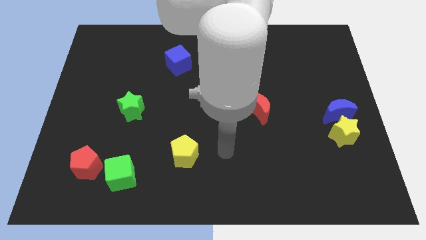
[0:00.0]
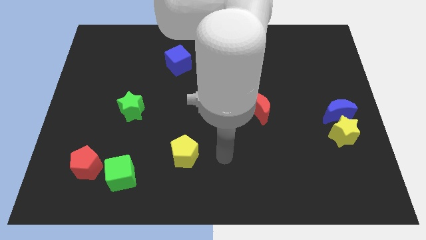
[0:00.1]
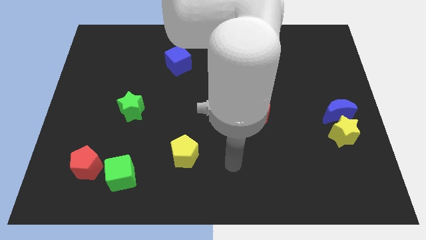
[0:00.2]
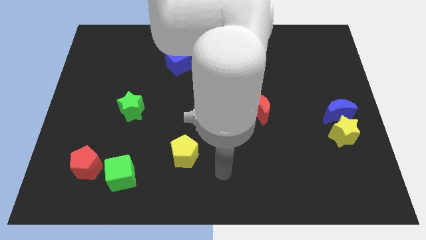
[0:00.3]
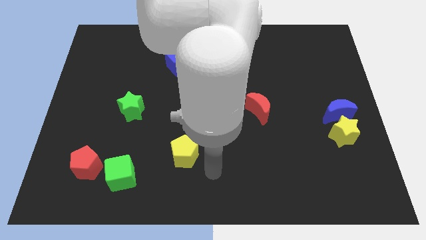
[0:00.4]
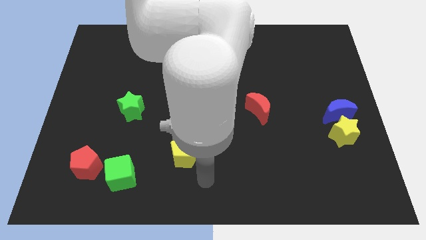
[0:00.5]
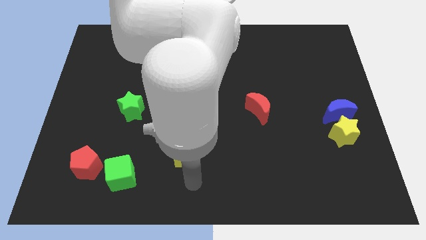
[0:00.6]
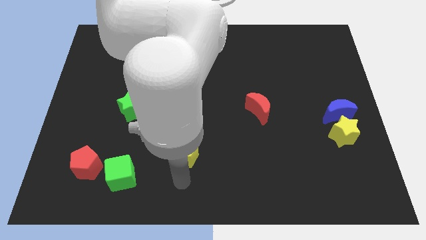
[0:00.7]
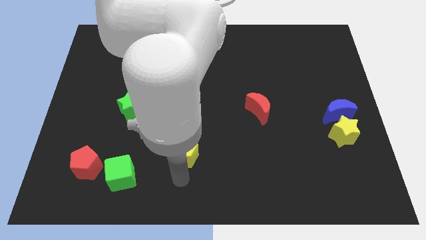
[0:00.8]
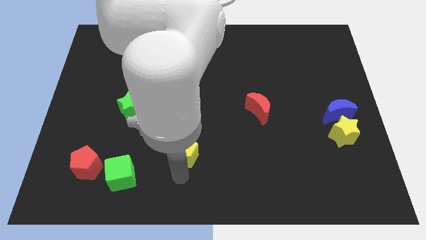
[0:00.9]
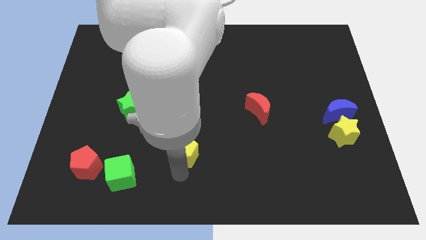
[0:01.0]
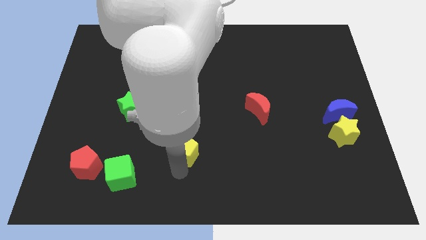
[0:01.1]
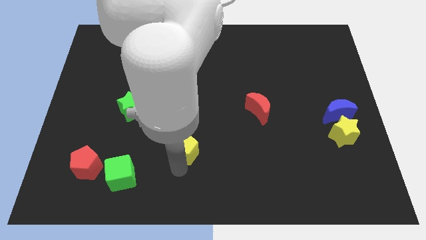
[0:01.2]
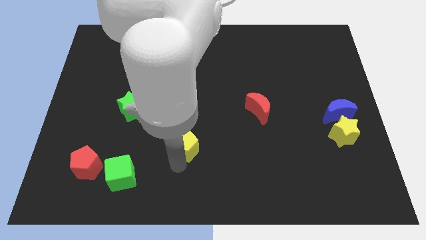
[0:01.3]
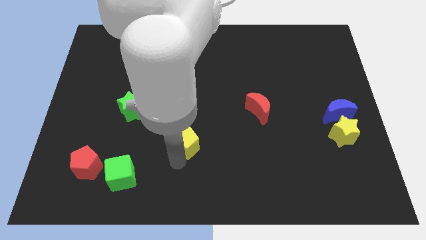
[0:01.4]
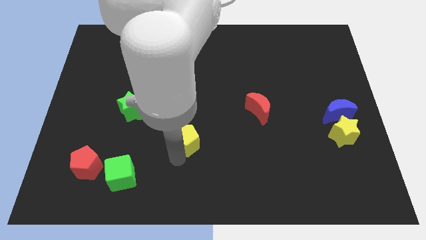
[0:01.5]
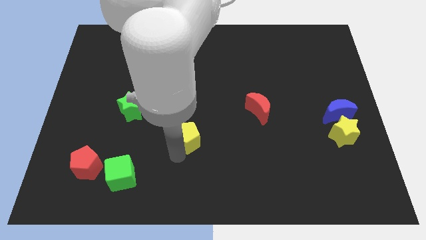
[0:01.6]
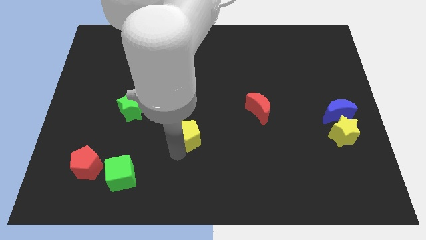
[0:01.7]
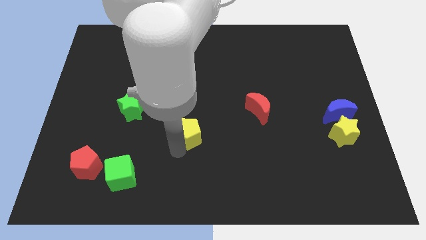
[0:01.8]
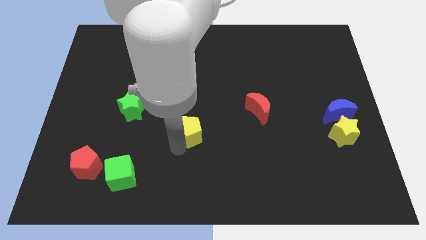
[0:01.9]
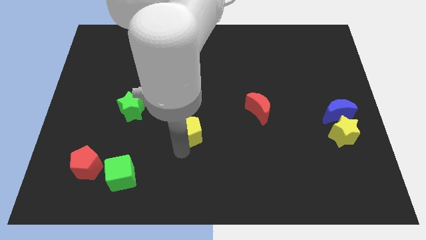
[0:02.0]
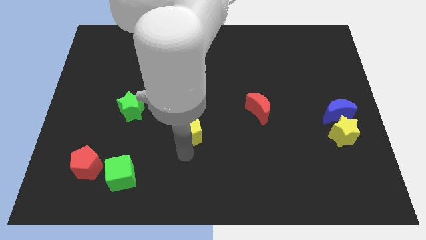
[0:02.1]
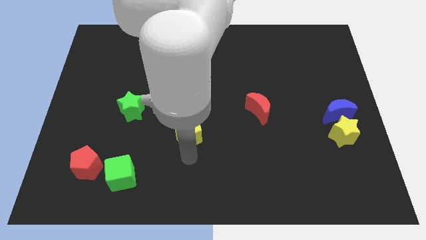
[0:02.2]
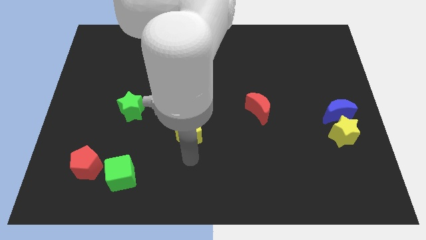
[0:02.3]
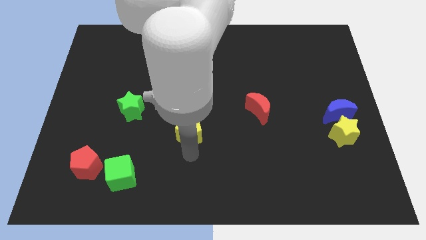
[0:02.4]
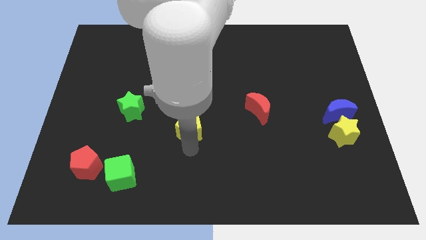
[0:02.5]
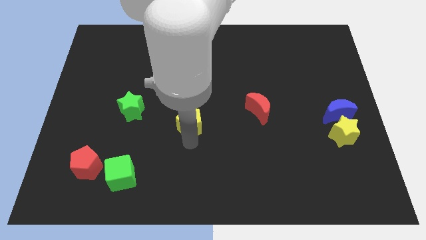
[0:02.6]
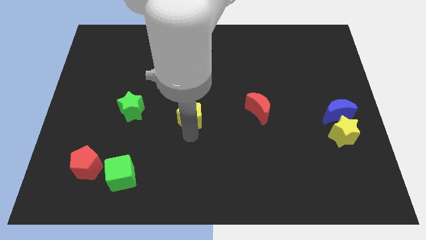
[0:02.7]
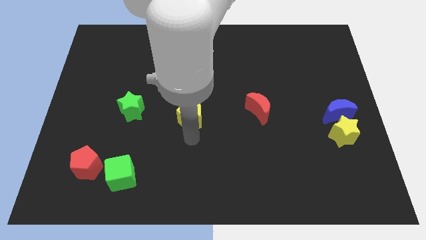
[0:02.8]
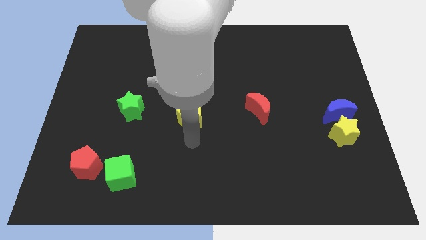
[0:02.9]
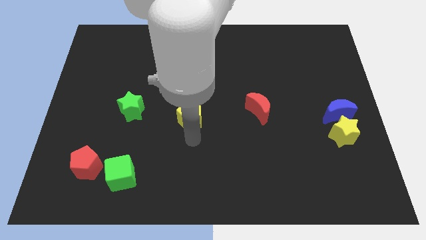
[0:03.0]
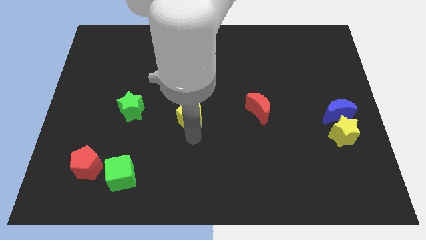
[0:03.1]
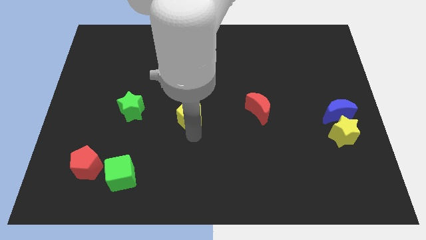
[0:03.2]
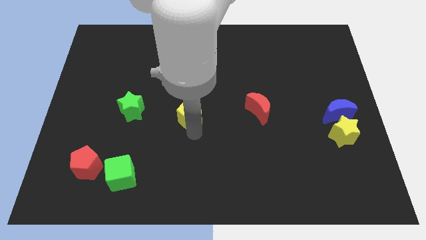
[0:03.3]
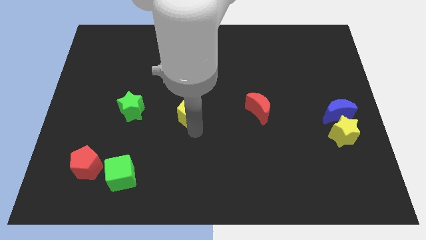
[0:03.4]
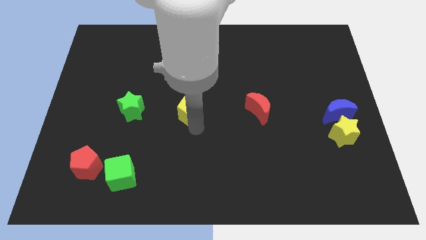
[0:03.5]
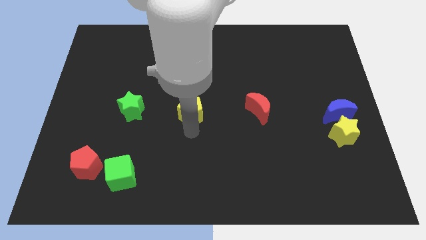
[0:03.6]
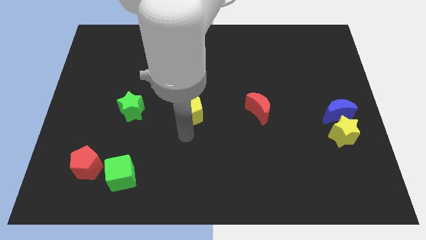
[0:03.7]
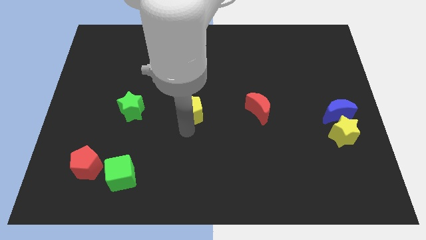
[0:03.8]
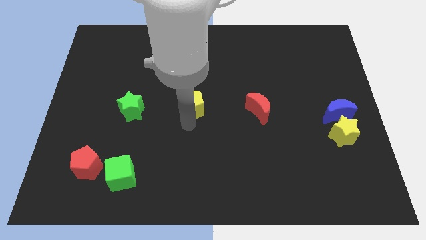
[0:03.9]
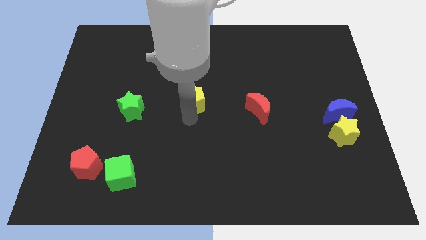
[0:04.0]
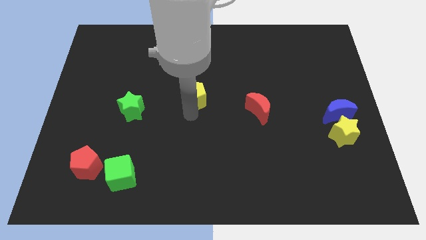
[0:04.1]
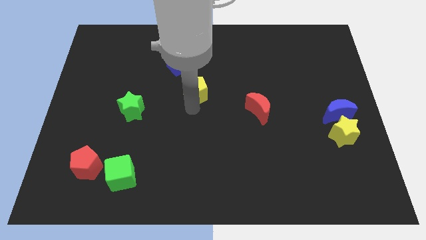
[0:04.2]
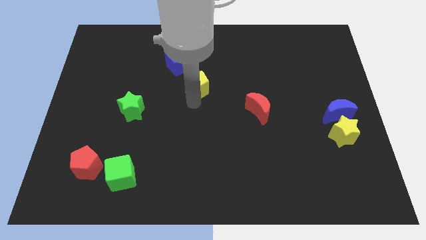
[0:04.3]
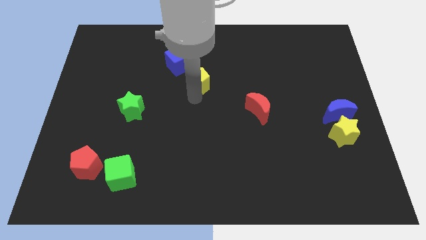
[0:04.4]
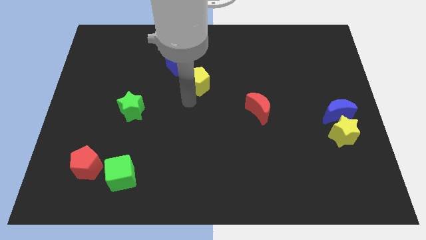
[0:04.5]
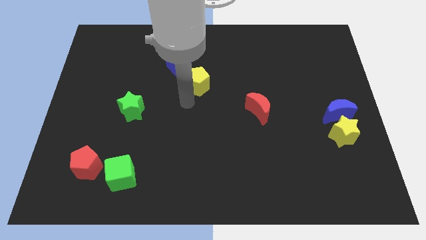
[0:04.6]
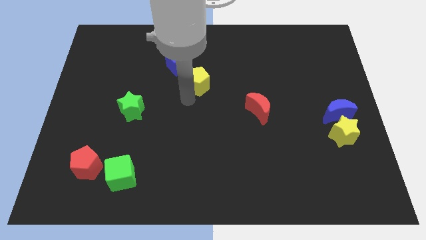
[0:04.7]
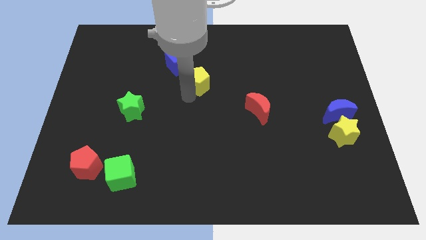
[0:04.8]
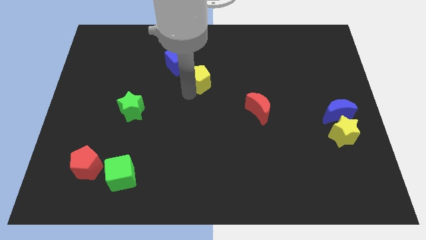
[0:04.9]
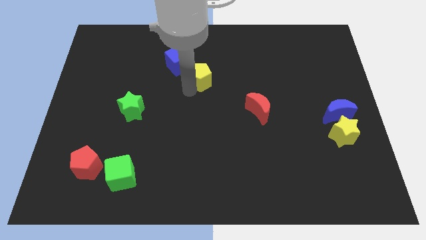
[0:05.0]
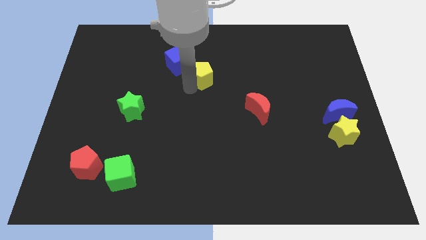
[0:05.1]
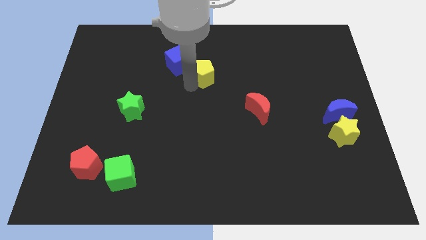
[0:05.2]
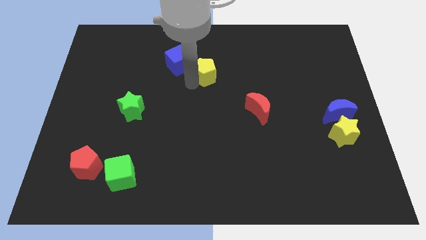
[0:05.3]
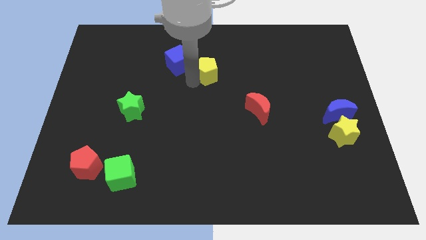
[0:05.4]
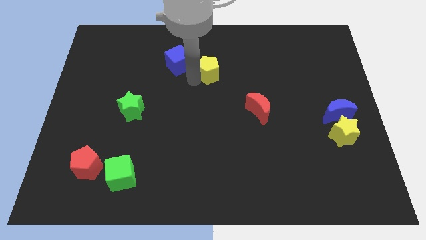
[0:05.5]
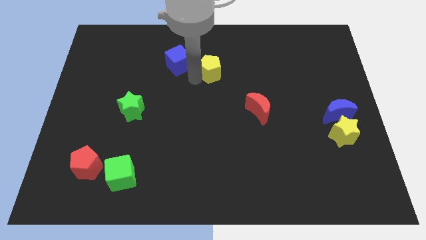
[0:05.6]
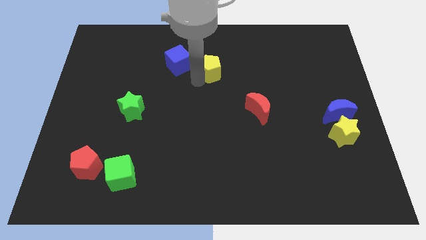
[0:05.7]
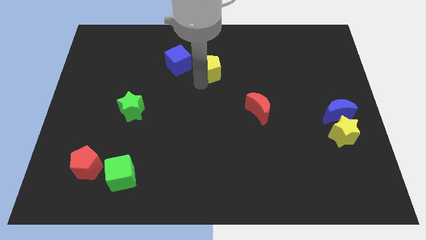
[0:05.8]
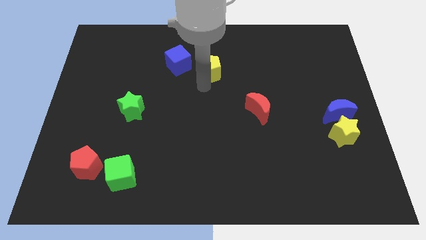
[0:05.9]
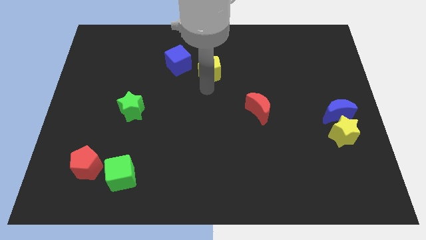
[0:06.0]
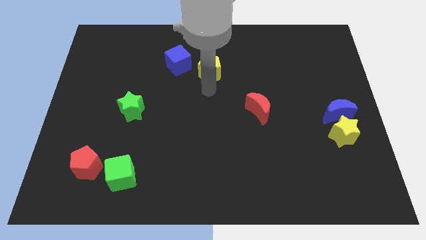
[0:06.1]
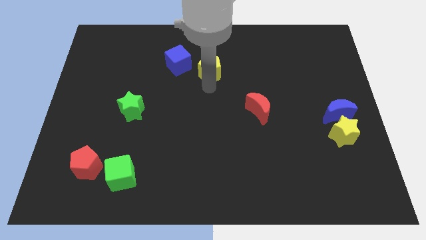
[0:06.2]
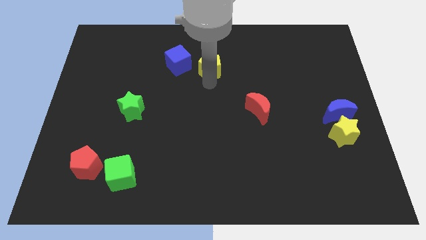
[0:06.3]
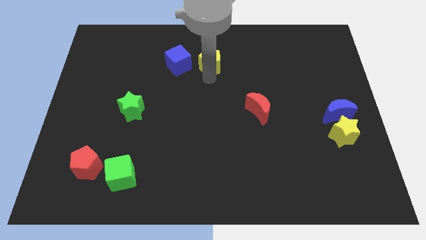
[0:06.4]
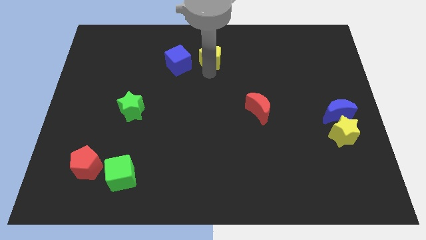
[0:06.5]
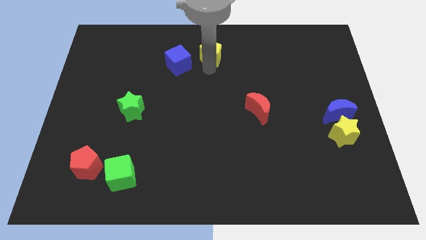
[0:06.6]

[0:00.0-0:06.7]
put the yellow pentagon to the towards your base

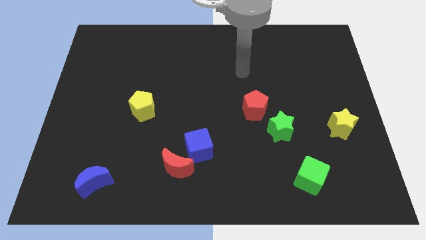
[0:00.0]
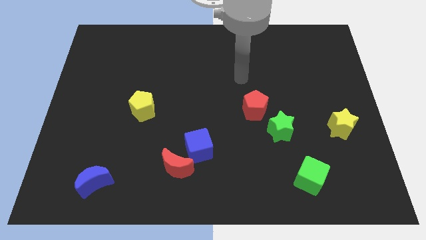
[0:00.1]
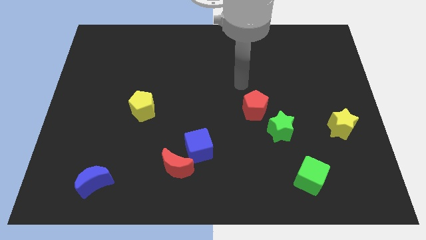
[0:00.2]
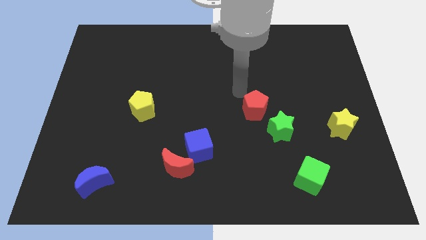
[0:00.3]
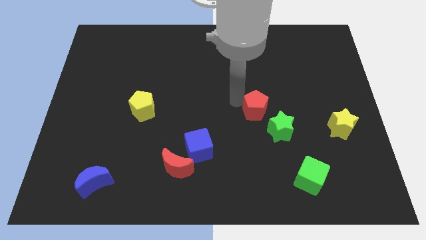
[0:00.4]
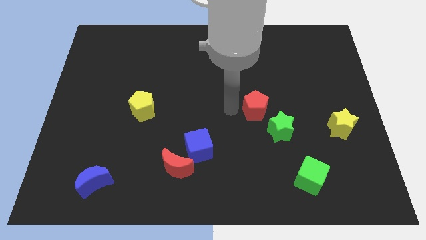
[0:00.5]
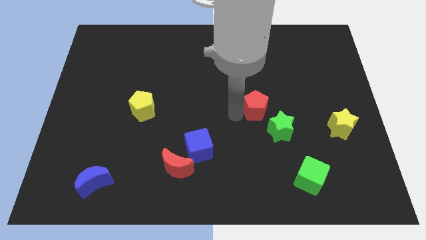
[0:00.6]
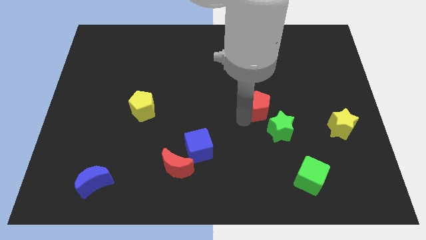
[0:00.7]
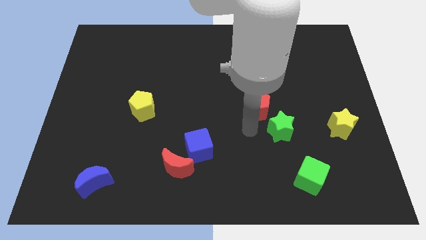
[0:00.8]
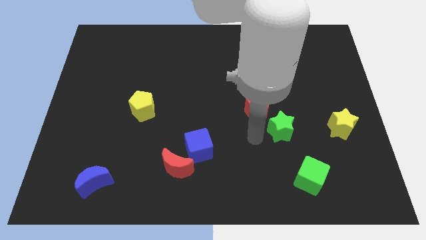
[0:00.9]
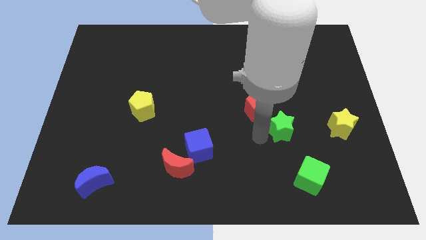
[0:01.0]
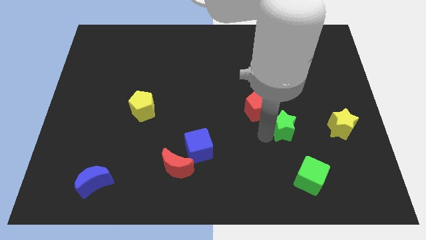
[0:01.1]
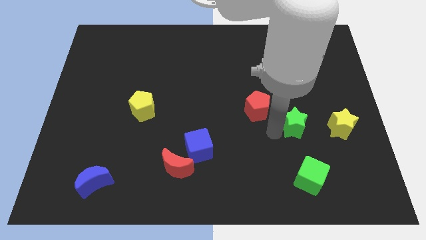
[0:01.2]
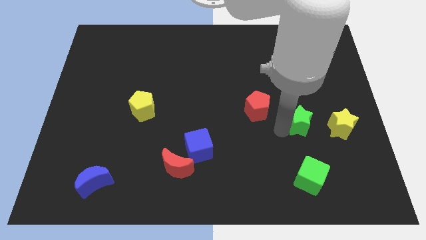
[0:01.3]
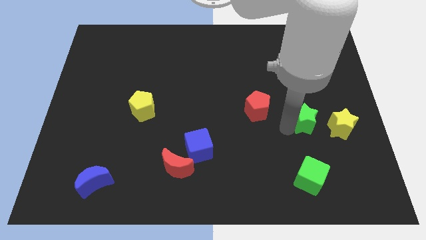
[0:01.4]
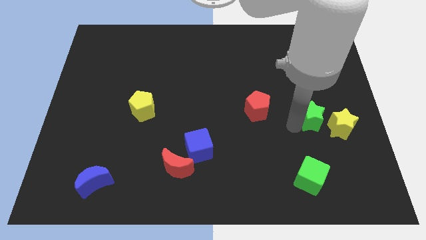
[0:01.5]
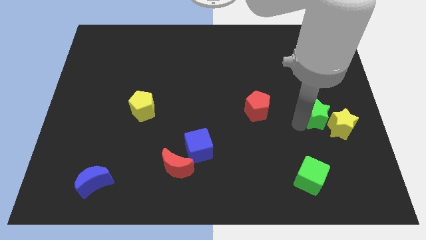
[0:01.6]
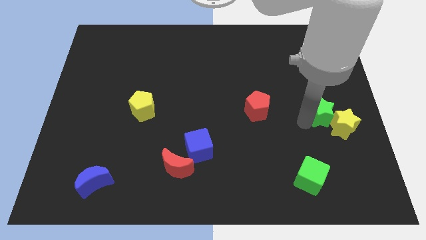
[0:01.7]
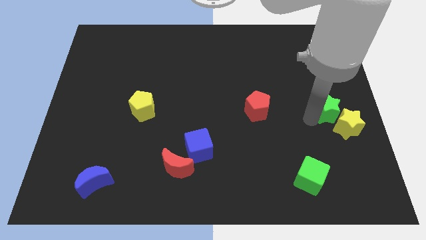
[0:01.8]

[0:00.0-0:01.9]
slide the green star to the right side of the board
